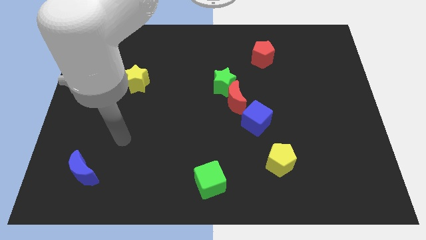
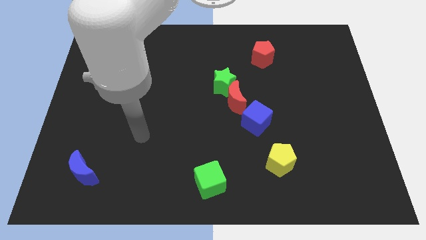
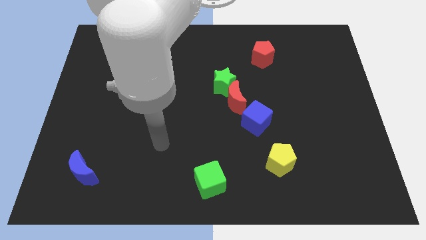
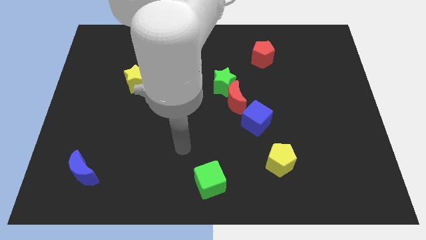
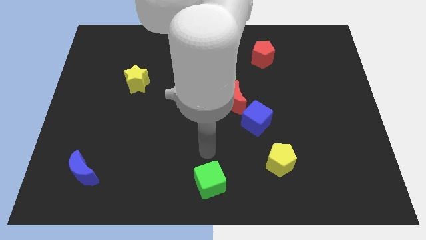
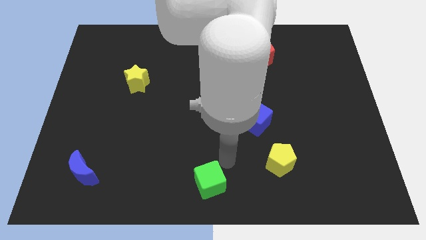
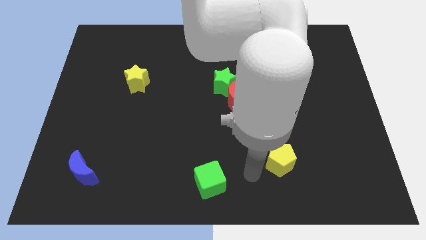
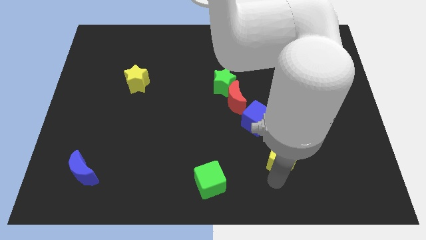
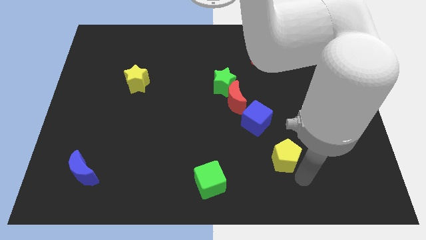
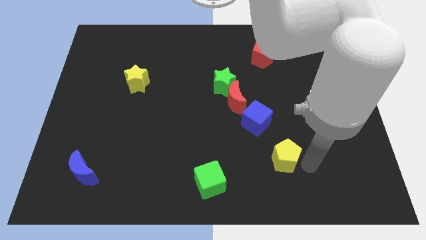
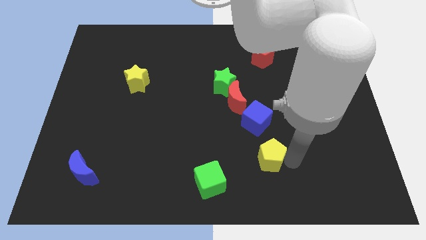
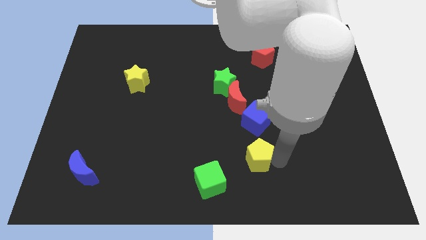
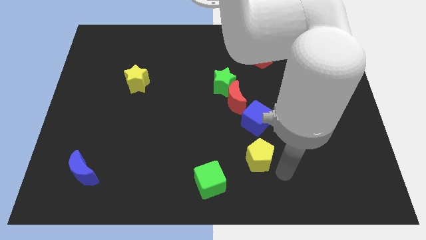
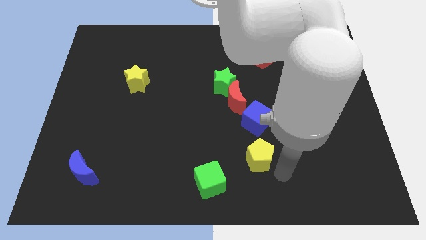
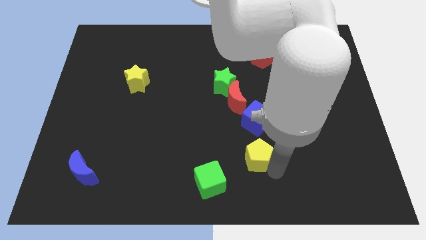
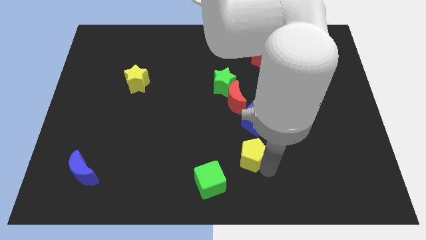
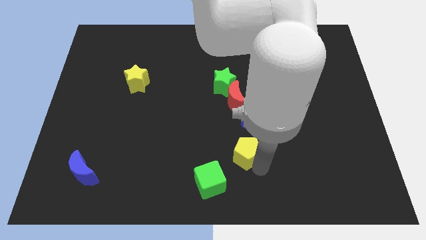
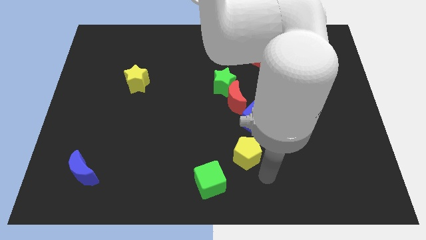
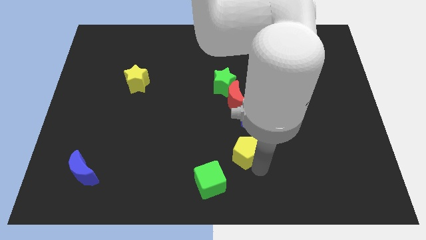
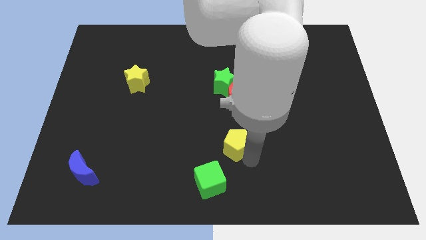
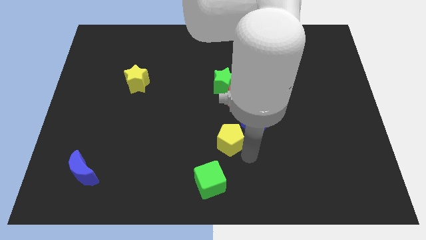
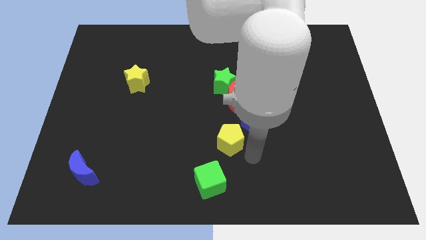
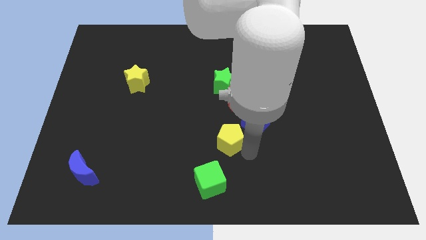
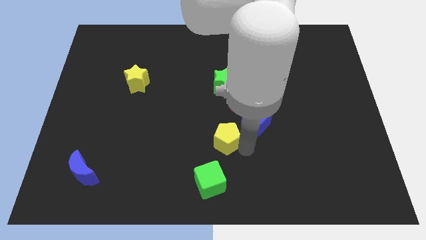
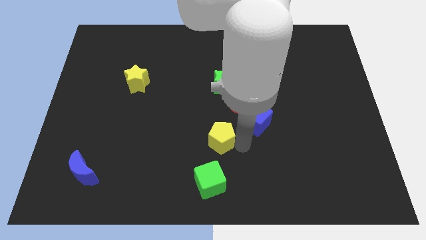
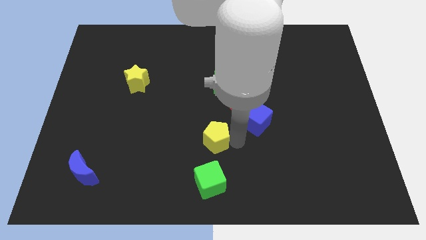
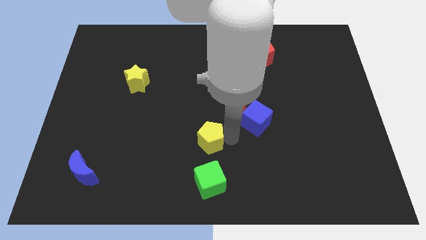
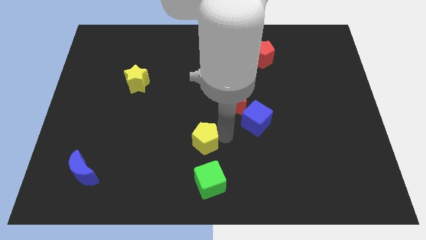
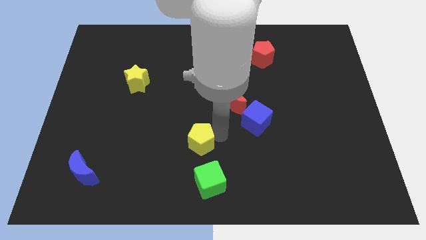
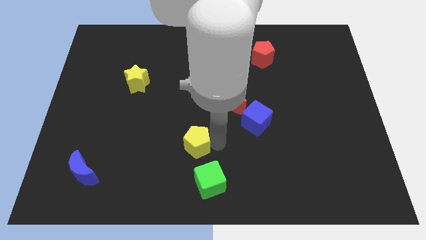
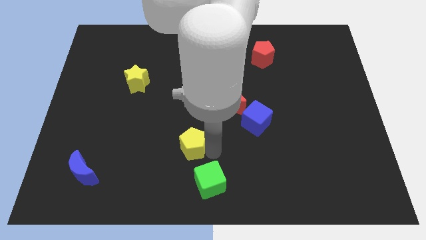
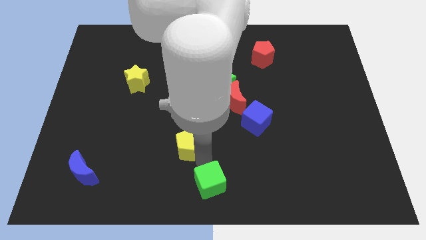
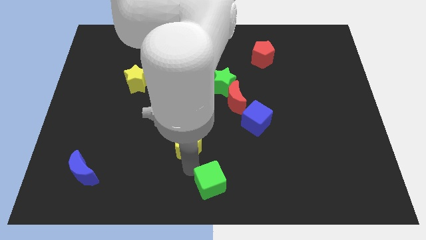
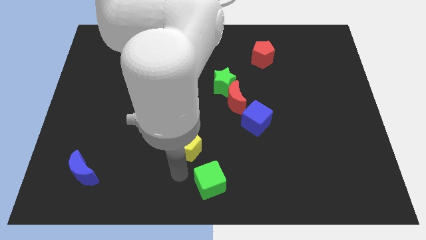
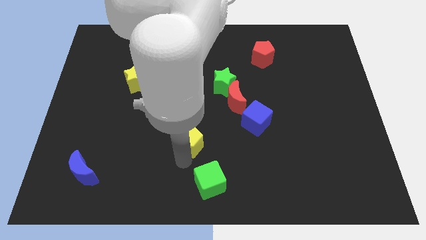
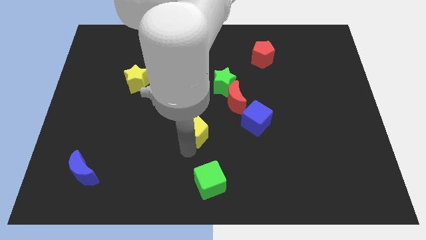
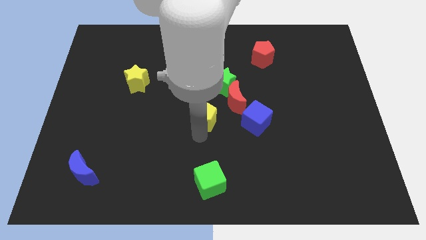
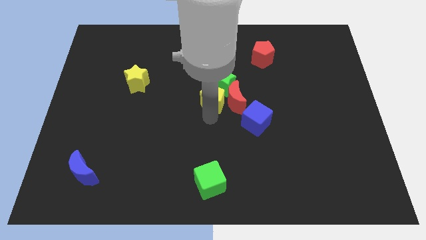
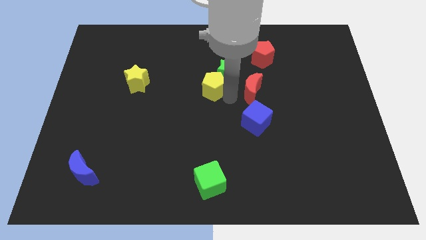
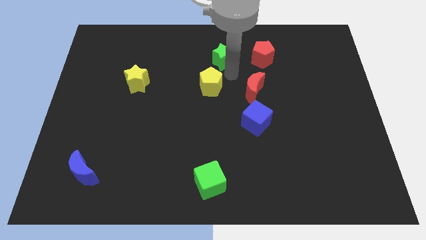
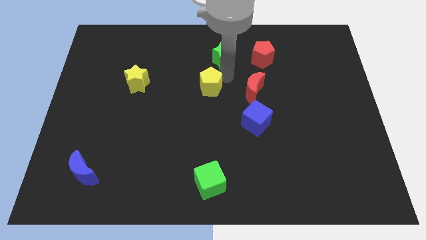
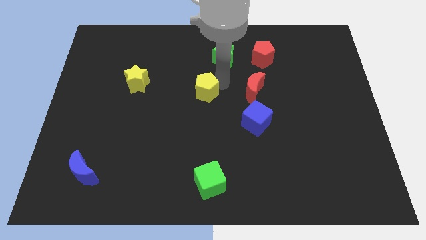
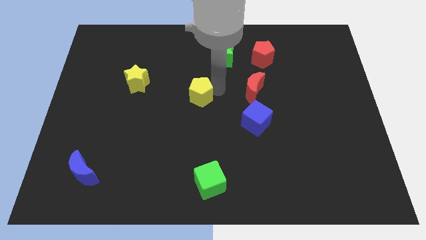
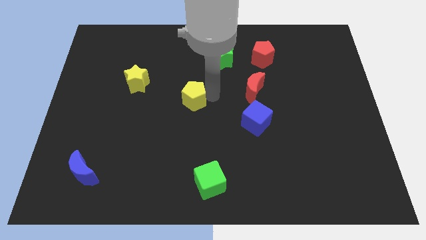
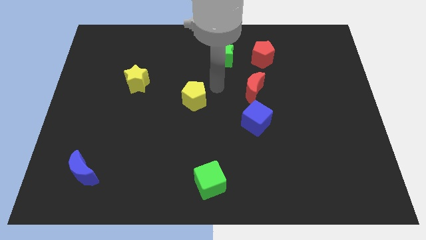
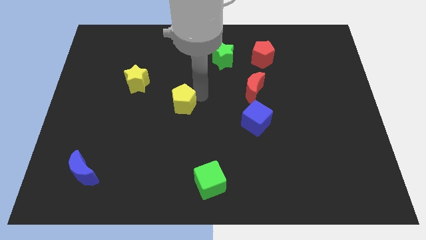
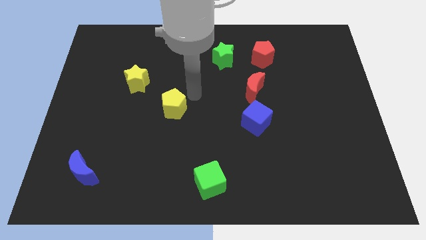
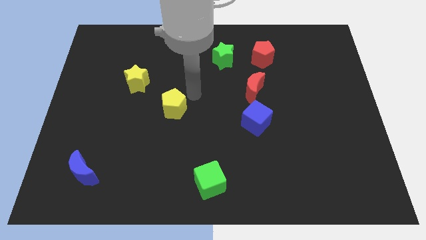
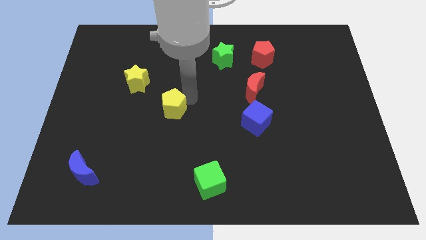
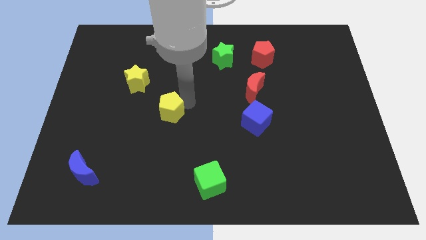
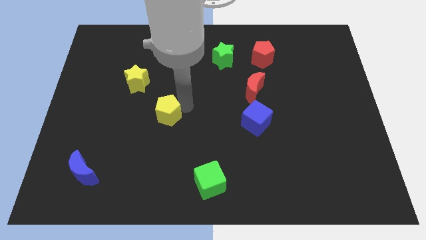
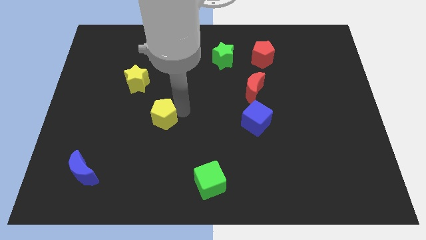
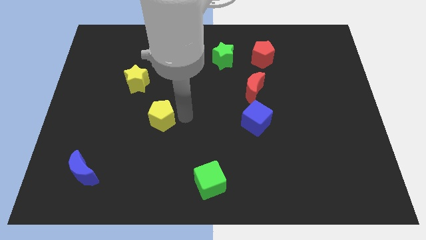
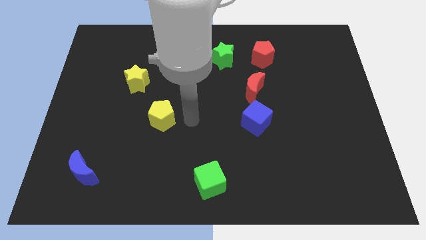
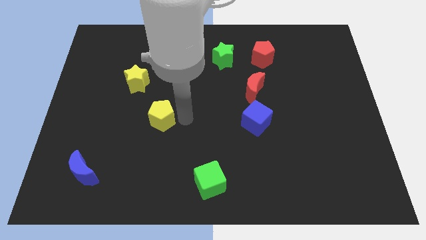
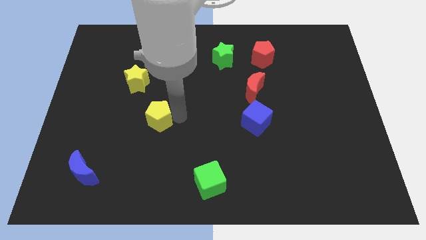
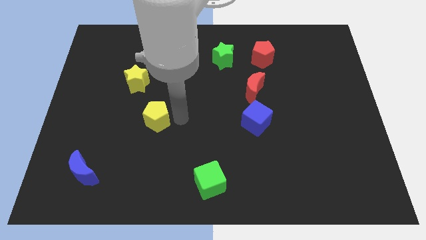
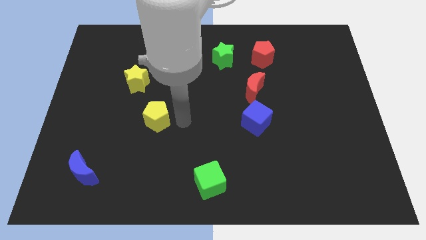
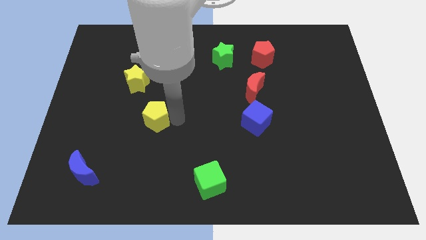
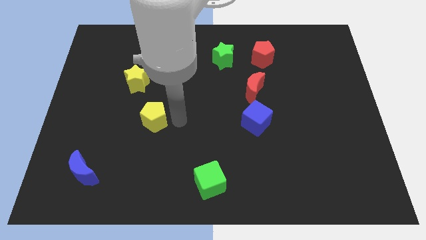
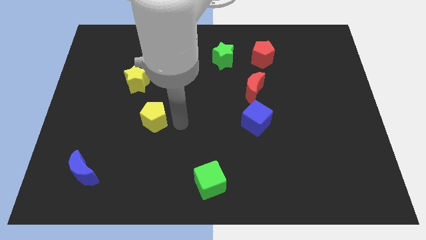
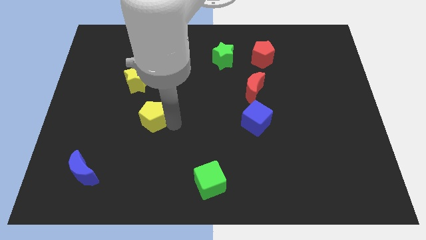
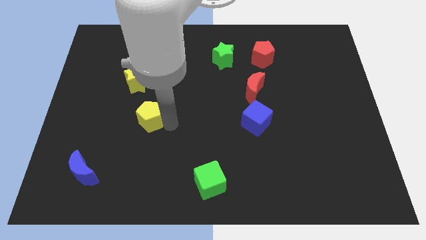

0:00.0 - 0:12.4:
slide the yellow pentagon to the bottom side of the yellow star

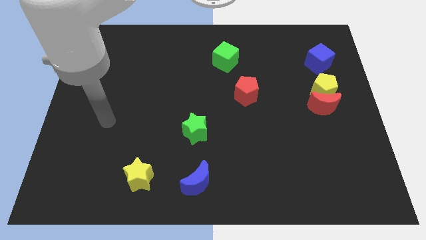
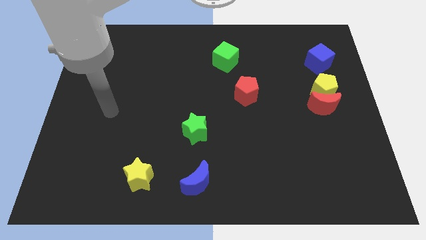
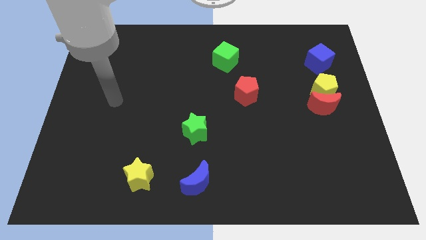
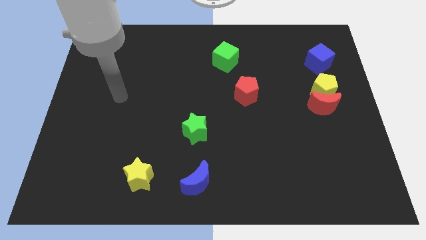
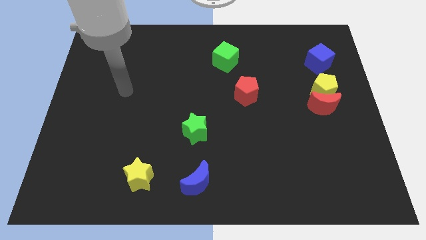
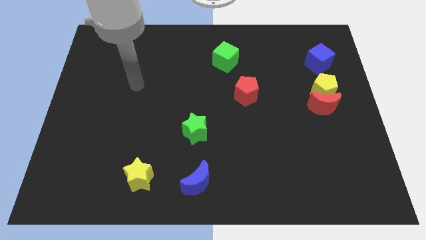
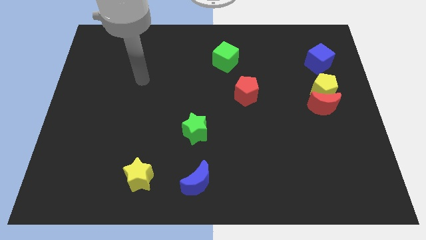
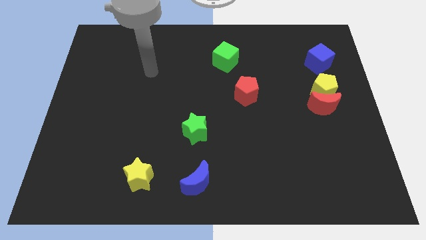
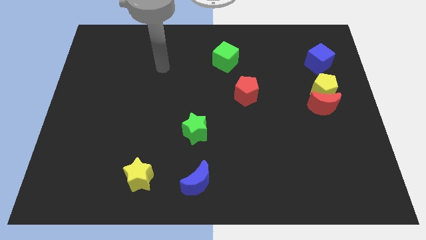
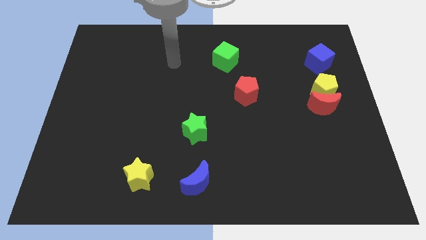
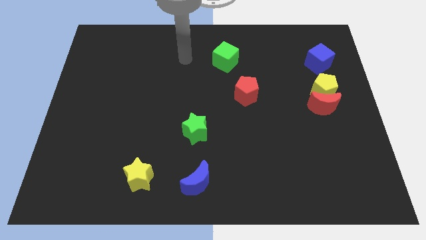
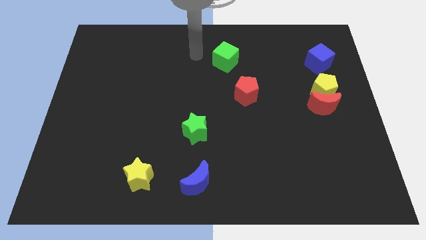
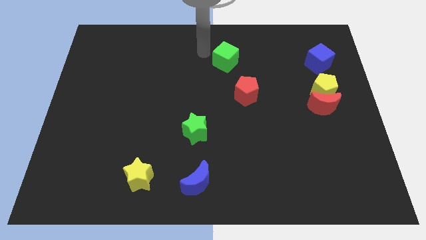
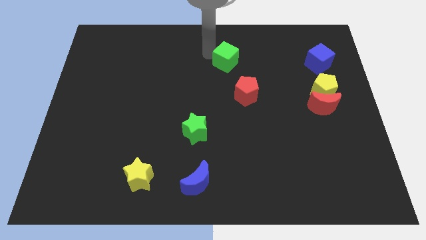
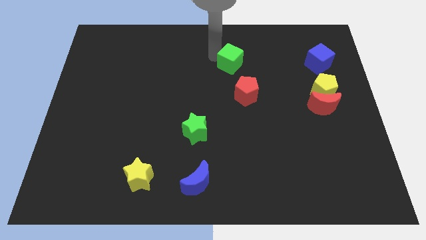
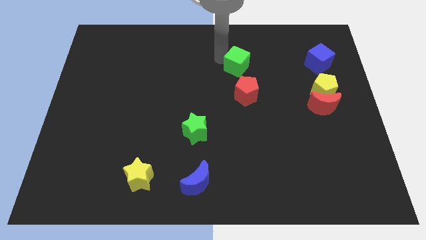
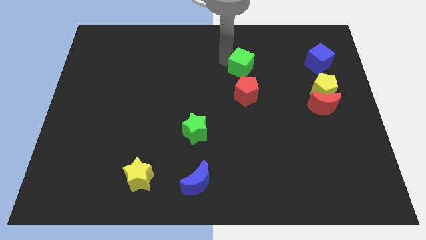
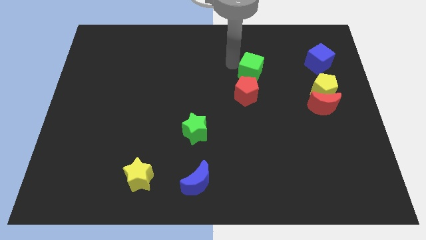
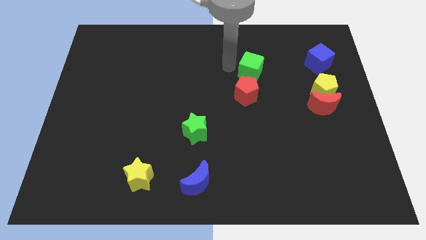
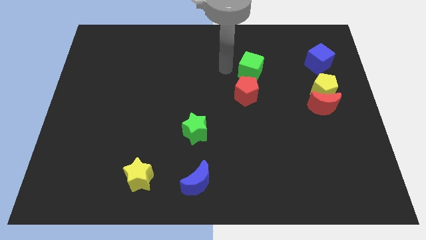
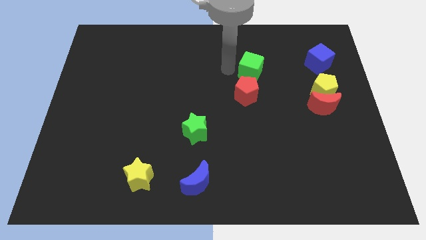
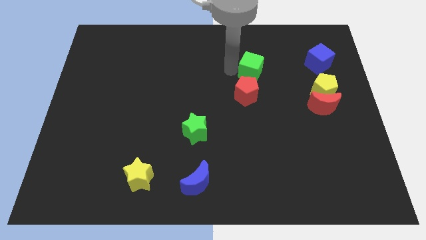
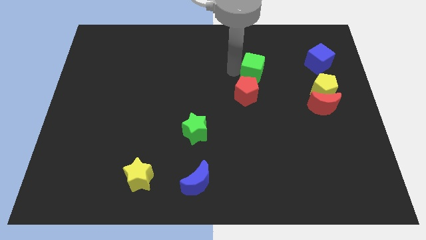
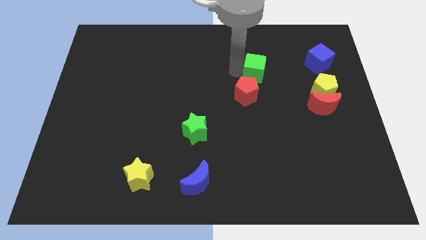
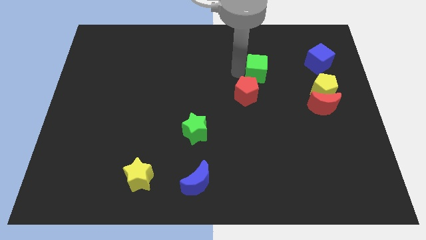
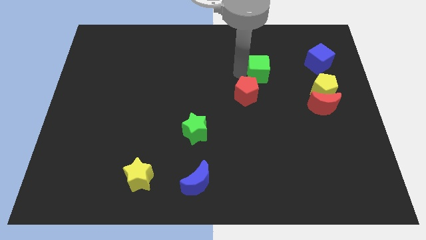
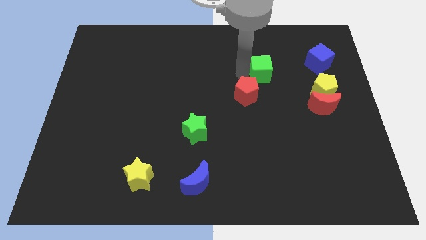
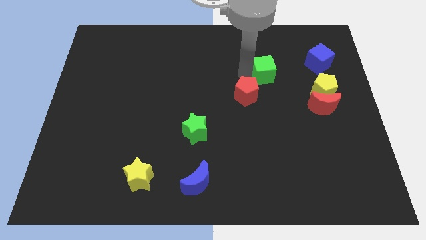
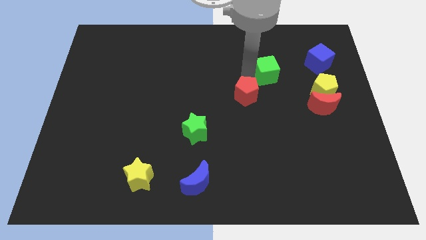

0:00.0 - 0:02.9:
put the green cube to the left of the blue cube
